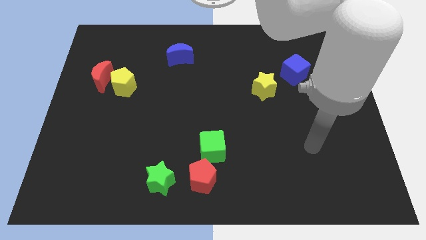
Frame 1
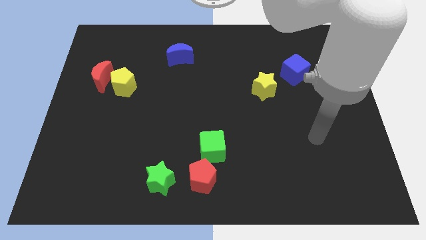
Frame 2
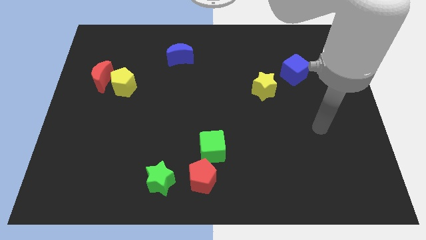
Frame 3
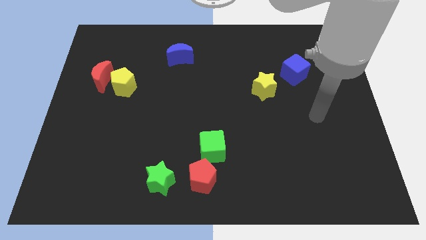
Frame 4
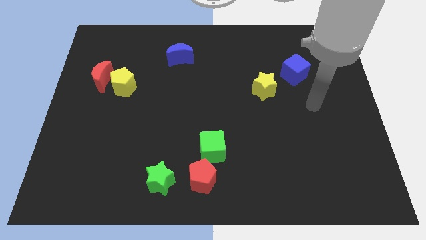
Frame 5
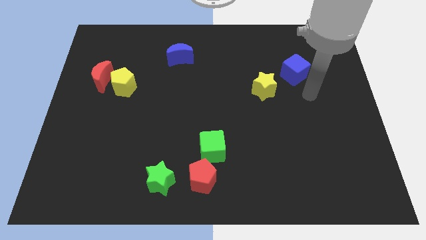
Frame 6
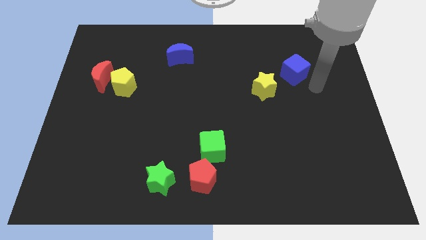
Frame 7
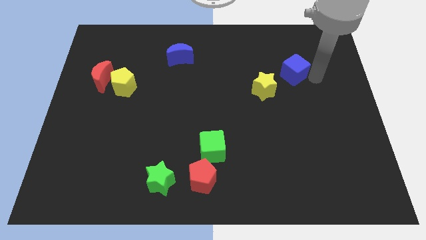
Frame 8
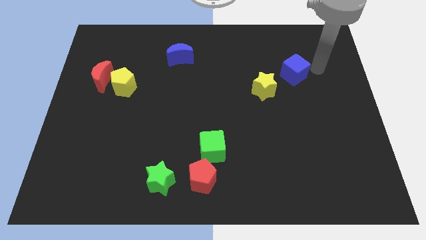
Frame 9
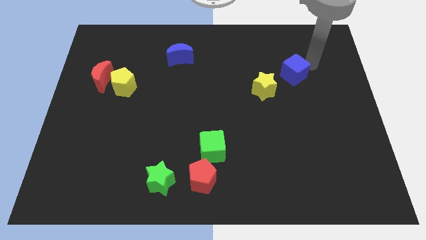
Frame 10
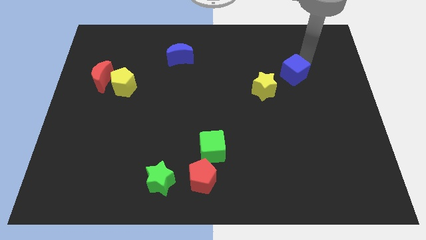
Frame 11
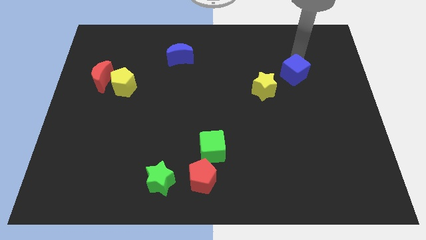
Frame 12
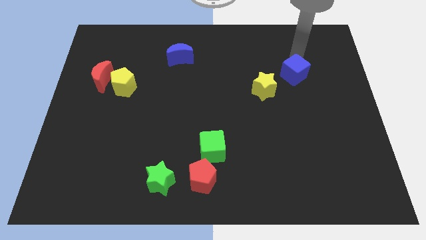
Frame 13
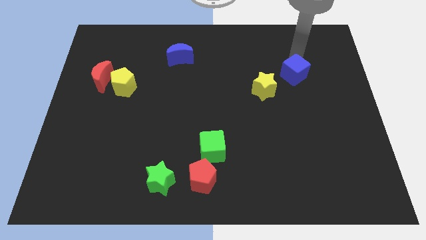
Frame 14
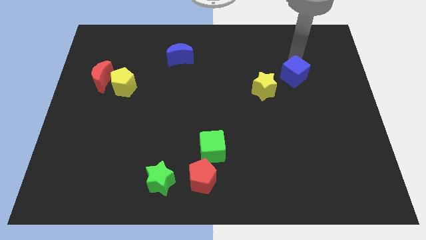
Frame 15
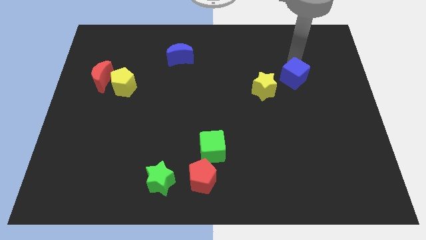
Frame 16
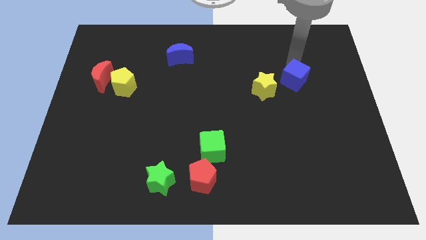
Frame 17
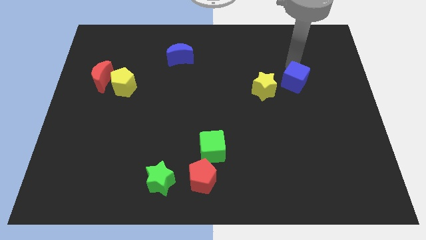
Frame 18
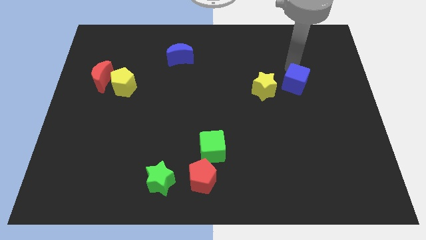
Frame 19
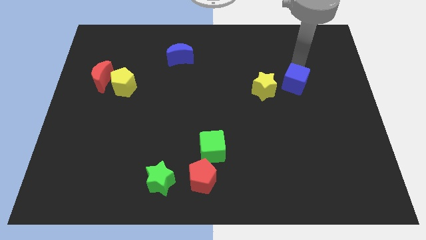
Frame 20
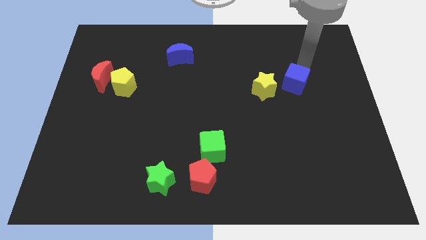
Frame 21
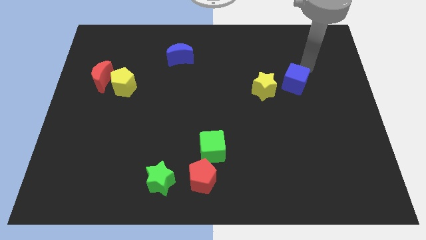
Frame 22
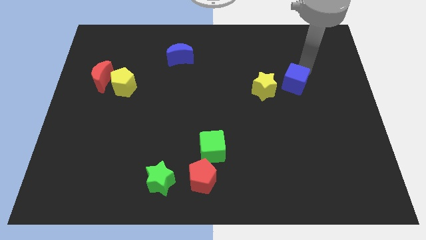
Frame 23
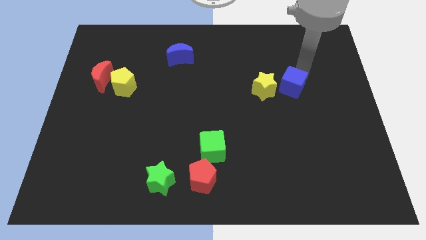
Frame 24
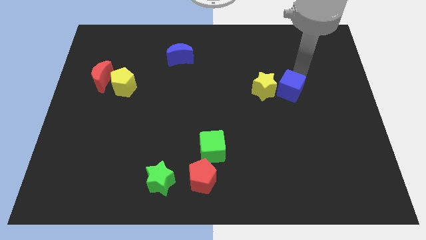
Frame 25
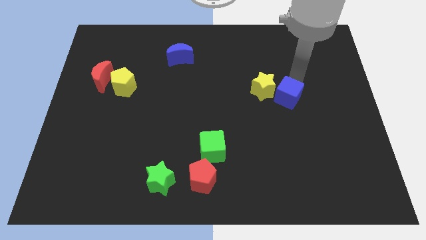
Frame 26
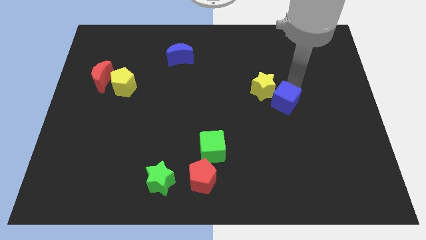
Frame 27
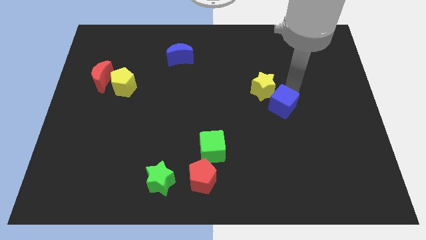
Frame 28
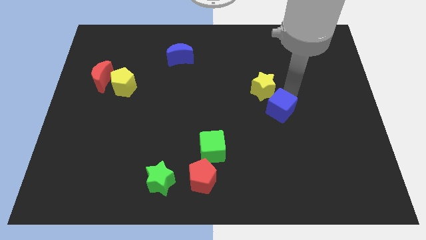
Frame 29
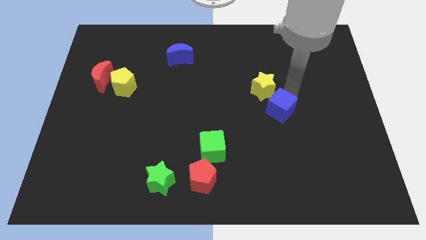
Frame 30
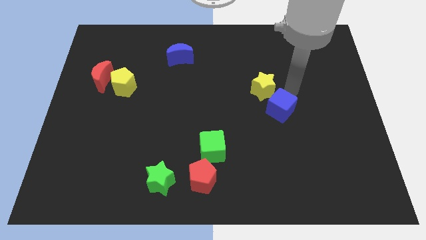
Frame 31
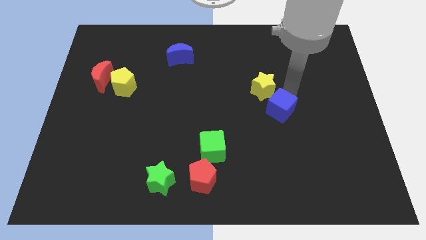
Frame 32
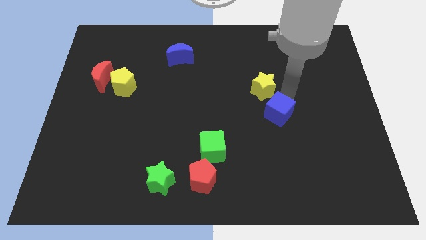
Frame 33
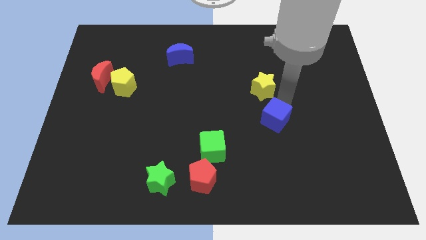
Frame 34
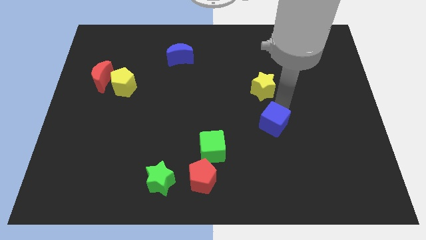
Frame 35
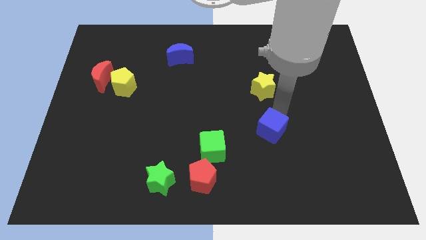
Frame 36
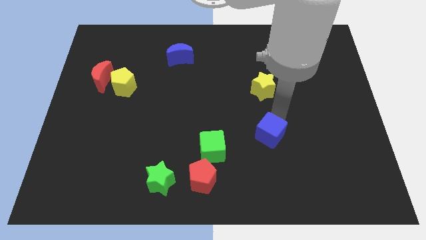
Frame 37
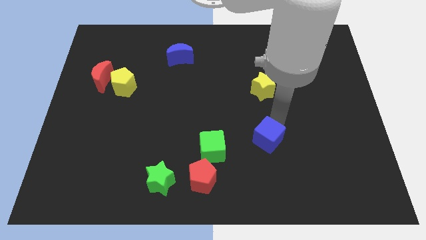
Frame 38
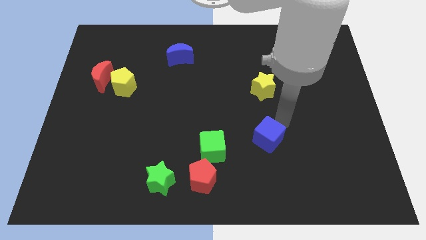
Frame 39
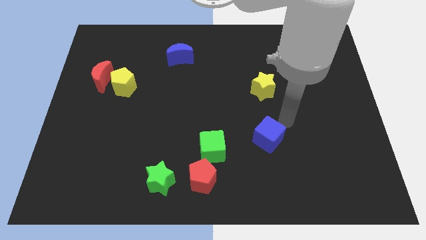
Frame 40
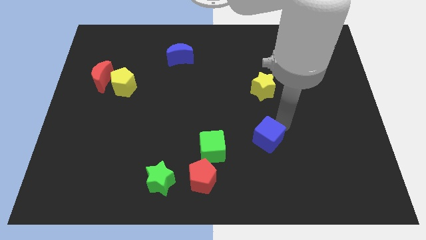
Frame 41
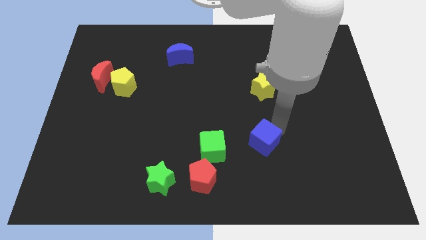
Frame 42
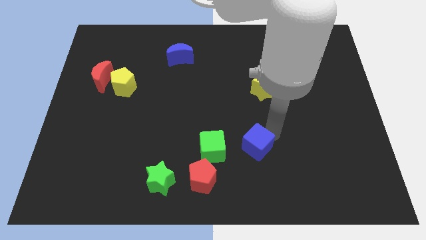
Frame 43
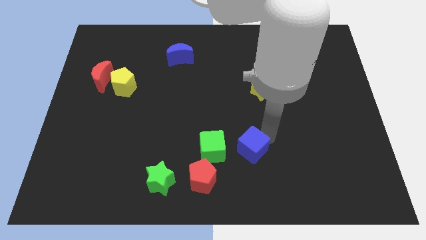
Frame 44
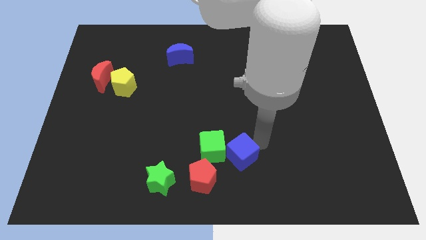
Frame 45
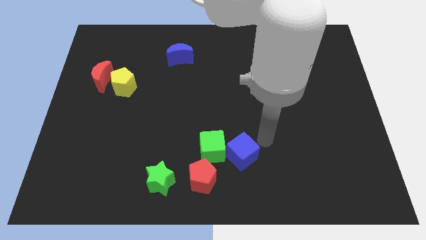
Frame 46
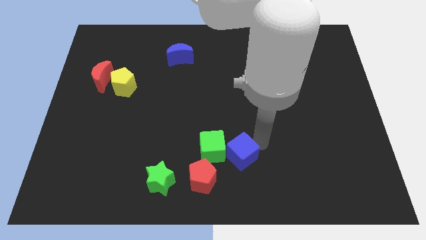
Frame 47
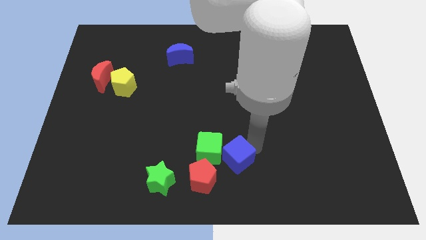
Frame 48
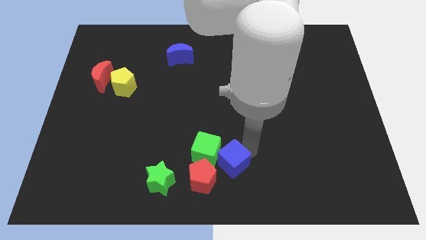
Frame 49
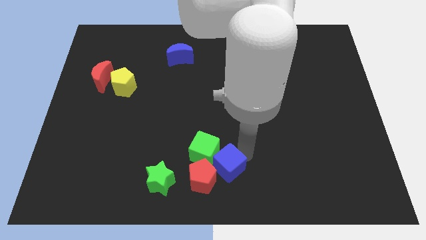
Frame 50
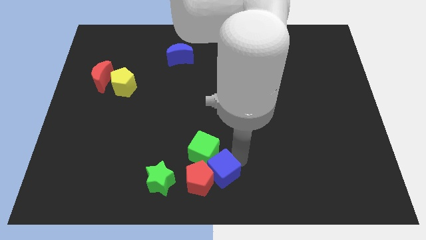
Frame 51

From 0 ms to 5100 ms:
move the blue cube towards the red pentagon

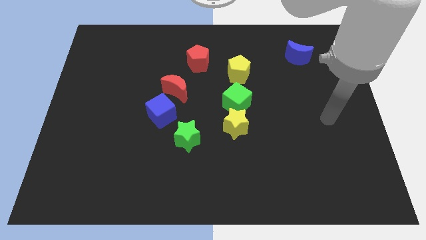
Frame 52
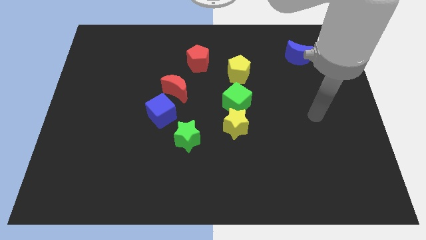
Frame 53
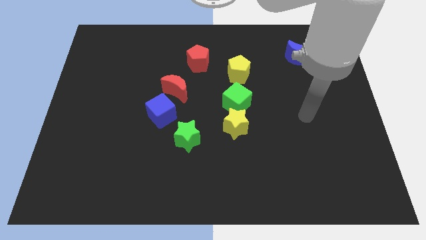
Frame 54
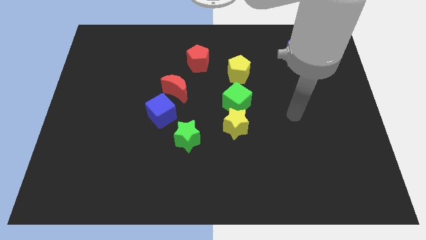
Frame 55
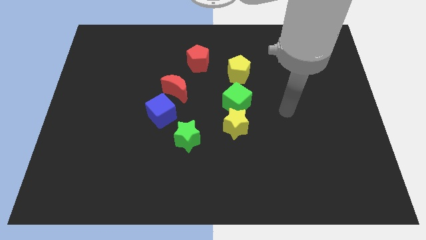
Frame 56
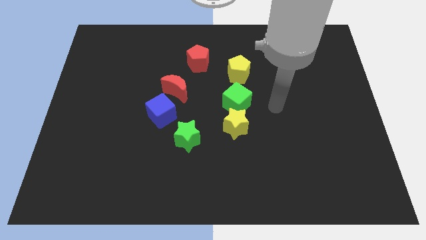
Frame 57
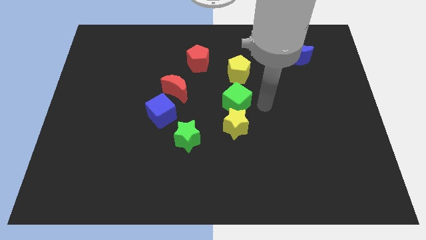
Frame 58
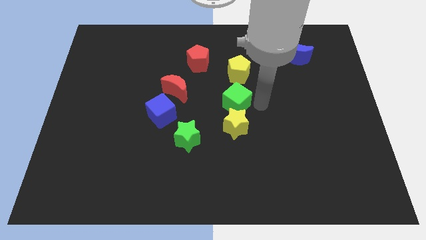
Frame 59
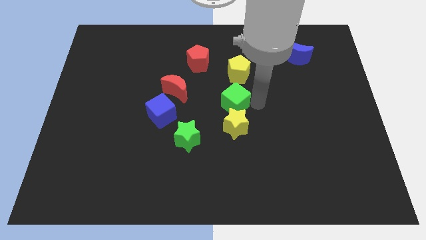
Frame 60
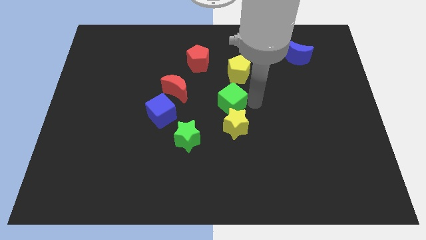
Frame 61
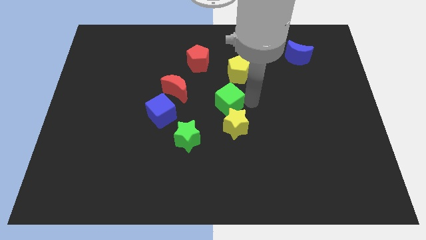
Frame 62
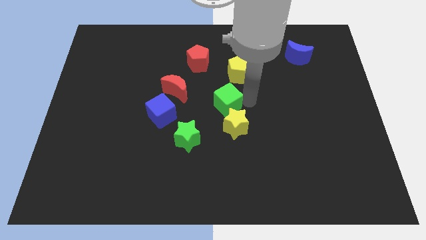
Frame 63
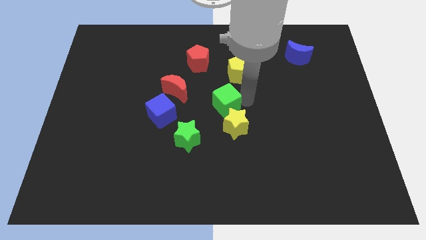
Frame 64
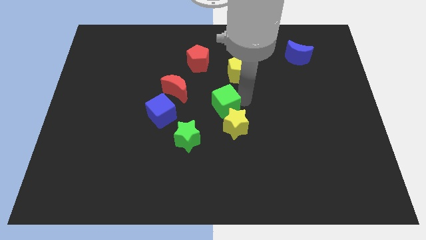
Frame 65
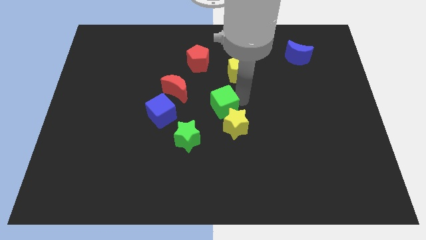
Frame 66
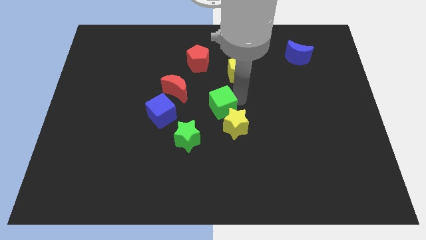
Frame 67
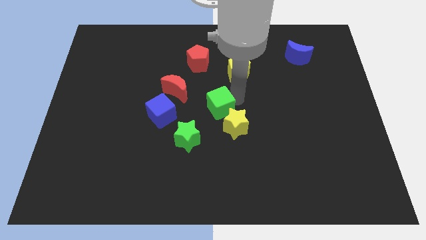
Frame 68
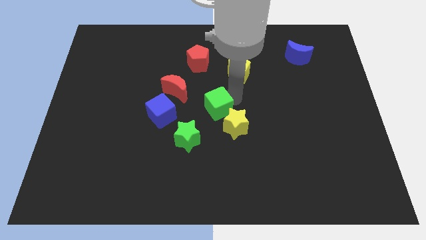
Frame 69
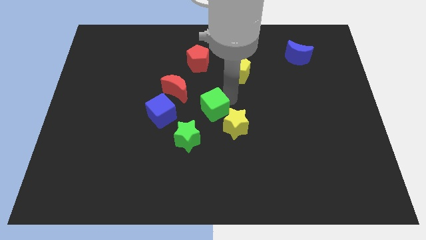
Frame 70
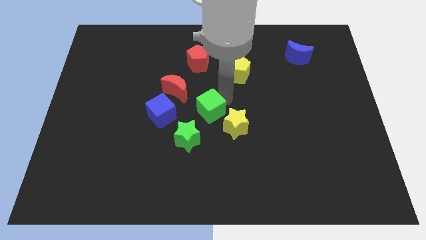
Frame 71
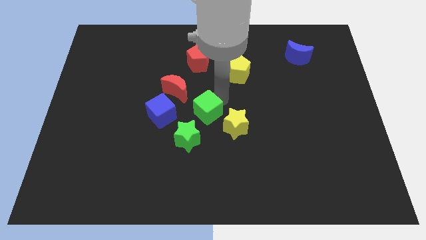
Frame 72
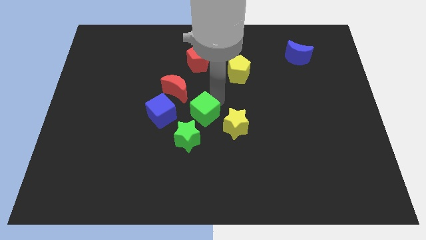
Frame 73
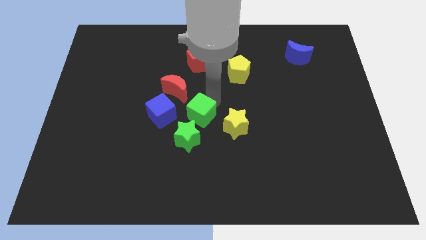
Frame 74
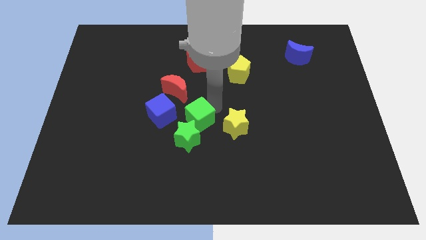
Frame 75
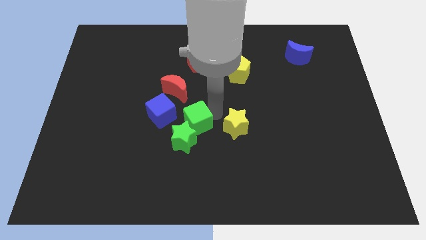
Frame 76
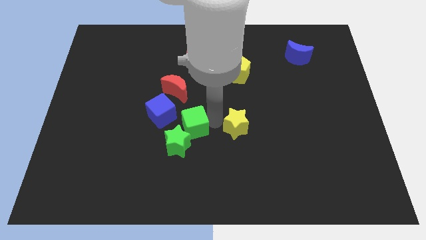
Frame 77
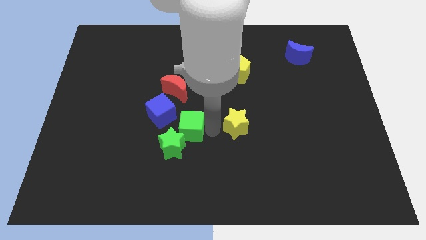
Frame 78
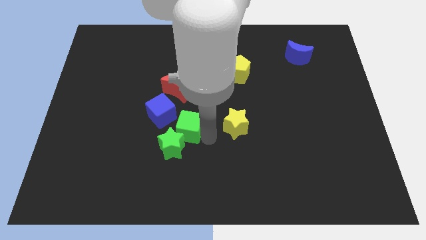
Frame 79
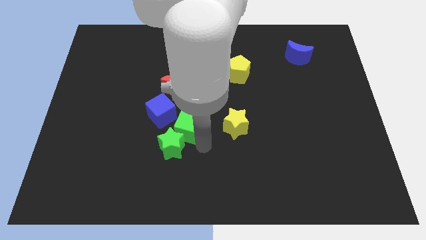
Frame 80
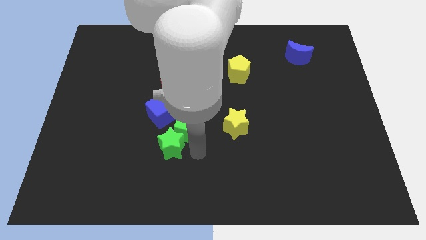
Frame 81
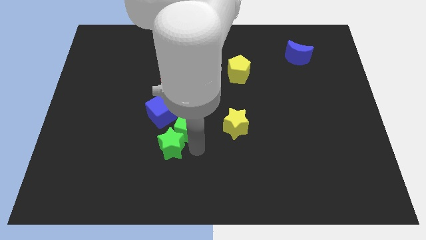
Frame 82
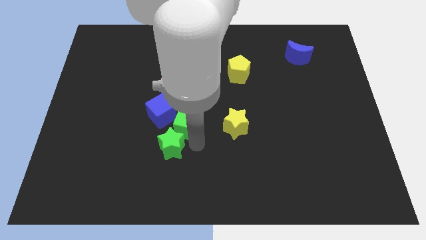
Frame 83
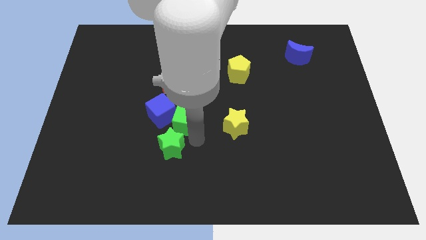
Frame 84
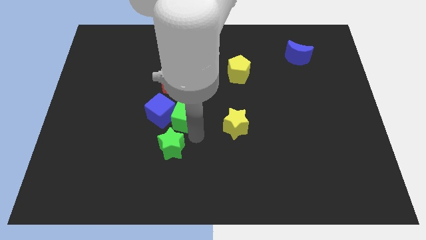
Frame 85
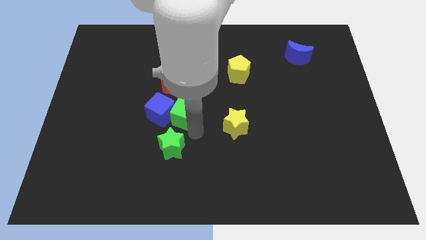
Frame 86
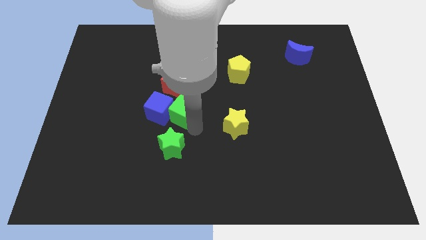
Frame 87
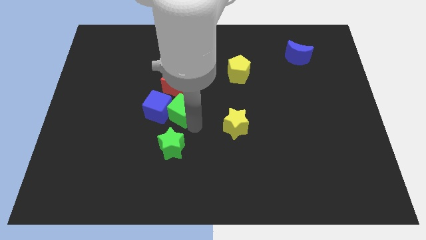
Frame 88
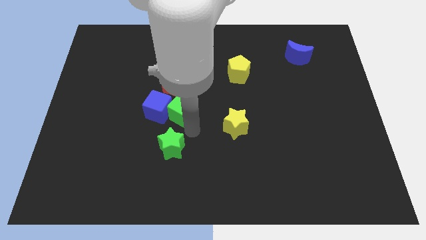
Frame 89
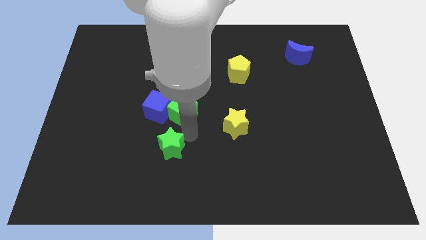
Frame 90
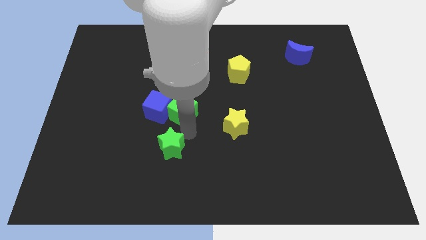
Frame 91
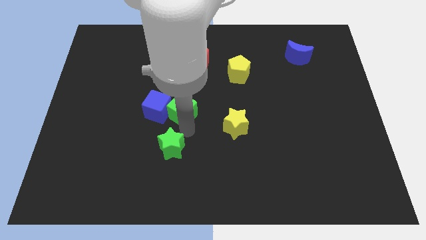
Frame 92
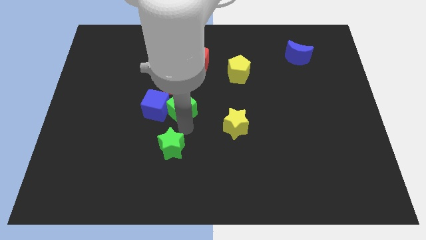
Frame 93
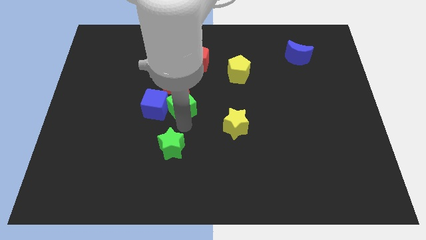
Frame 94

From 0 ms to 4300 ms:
put the green cube close to the red moon
